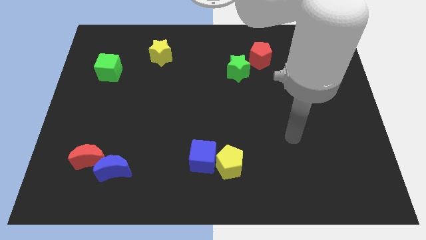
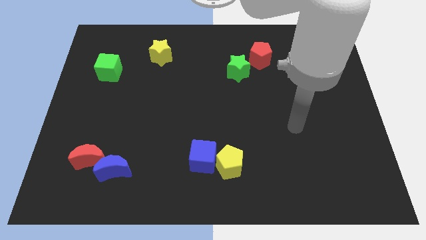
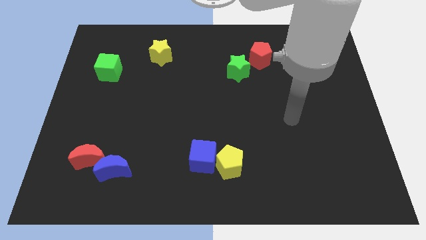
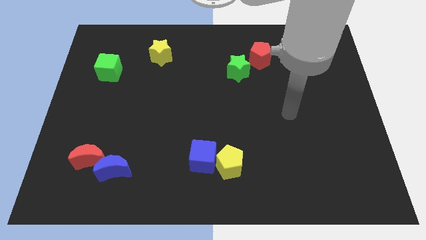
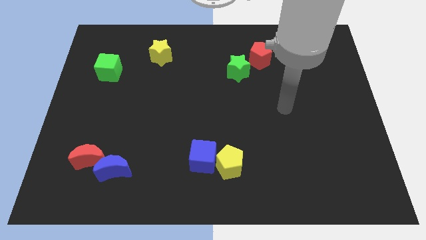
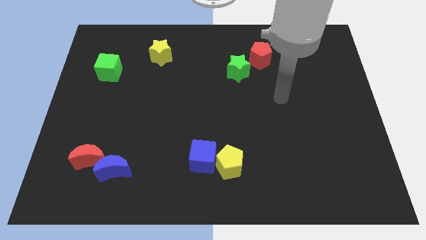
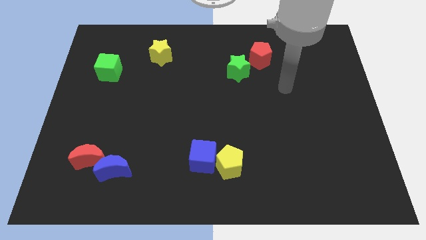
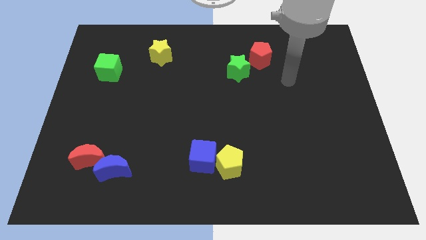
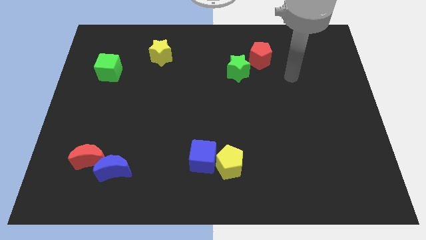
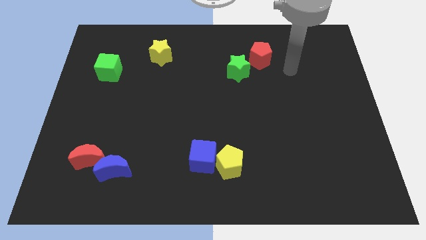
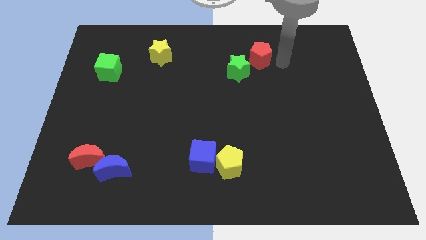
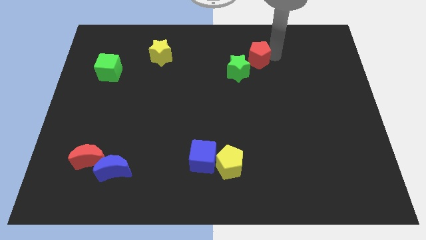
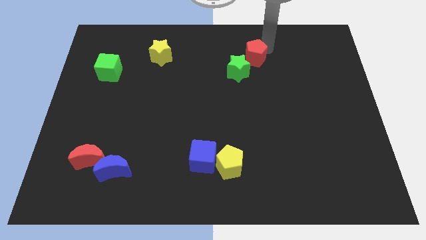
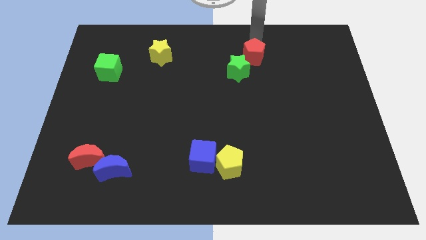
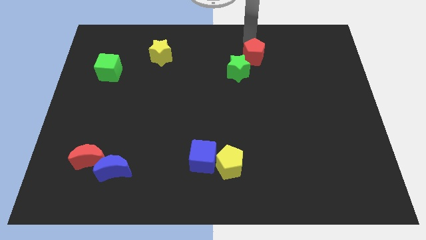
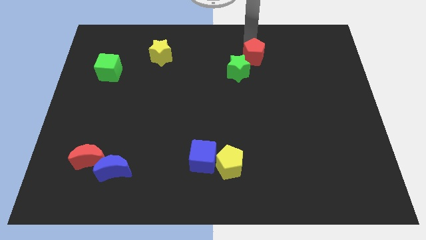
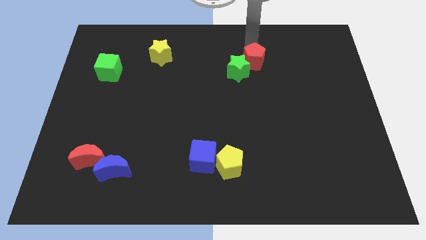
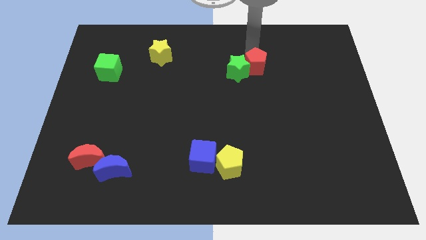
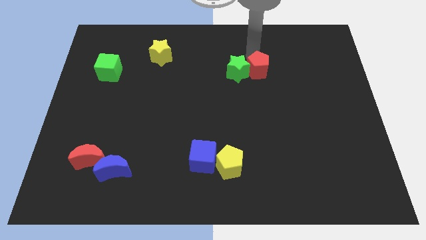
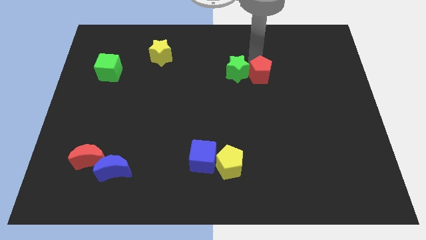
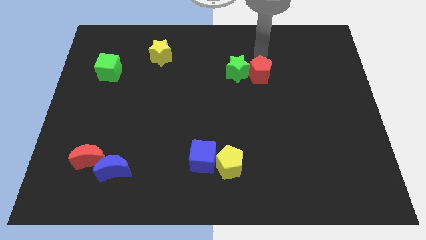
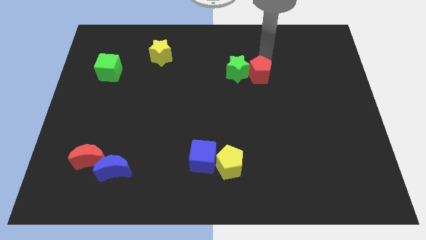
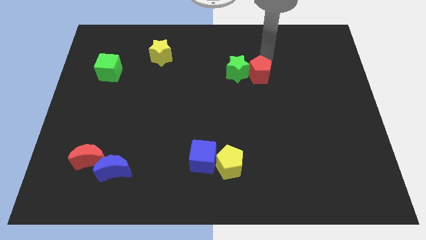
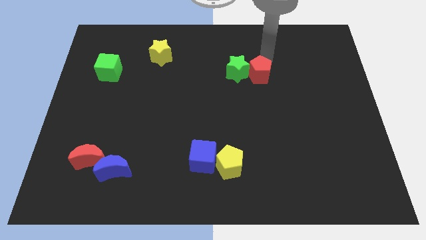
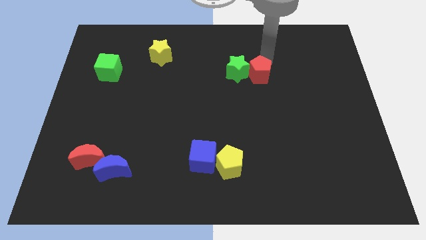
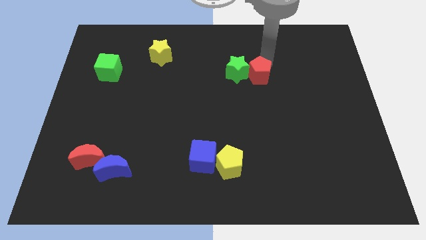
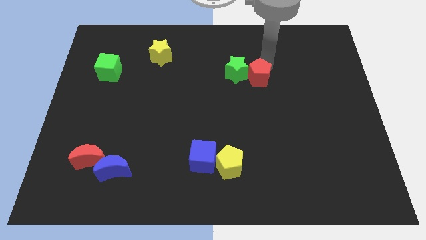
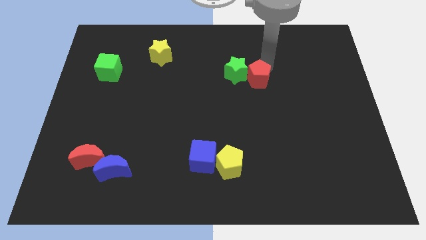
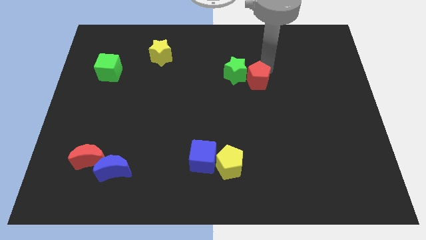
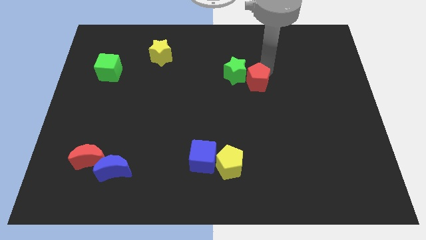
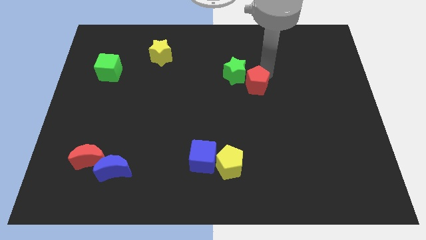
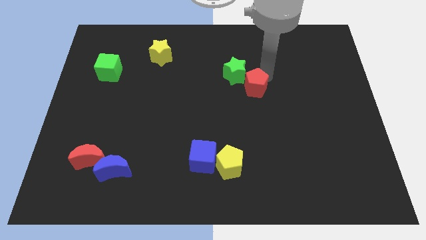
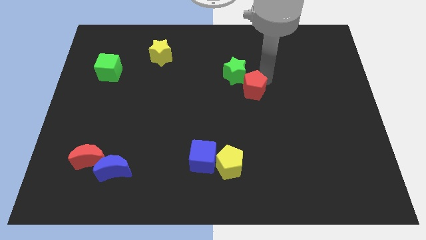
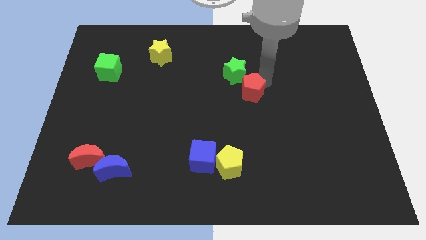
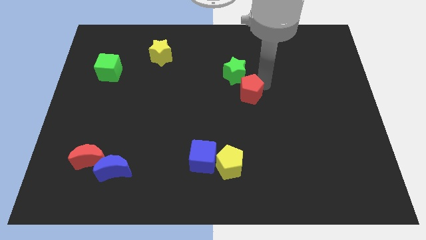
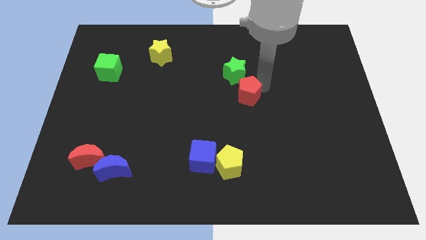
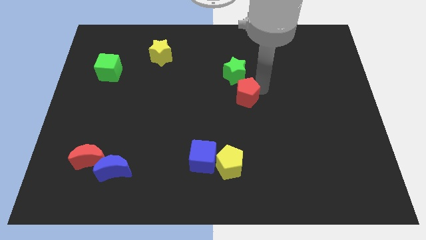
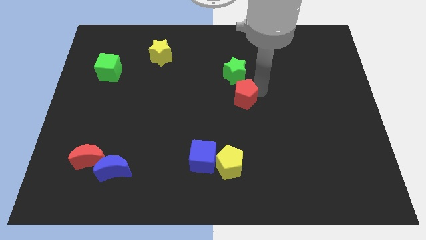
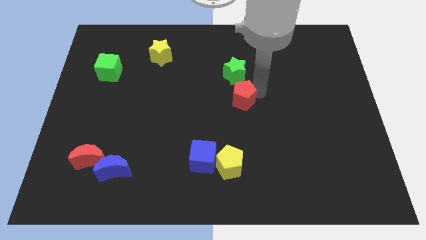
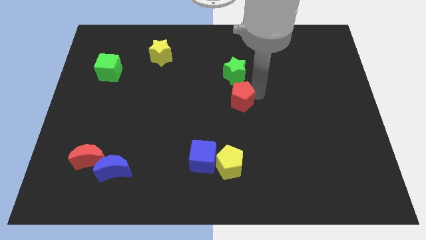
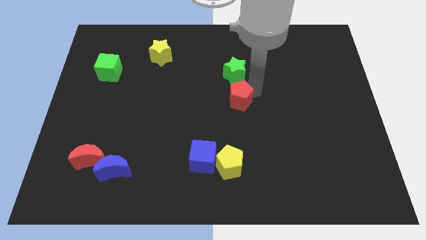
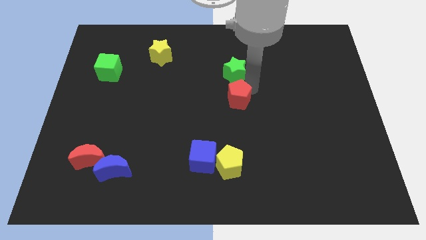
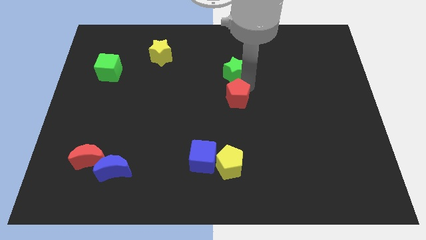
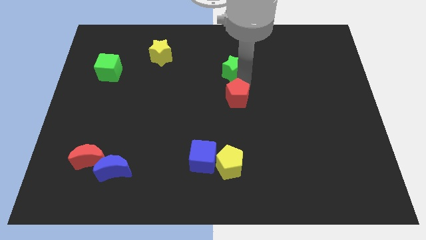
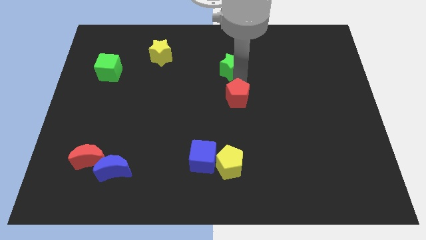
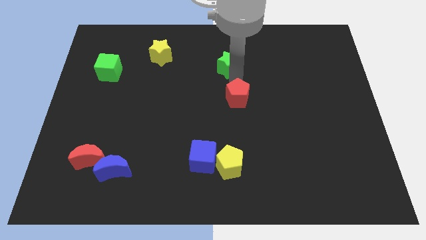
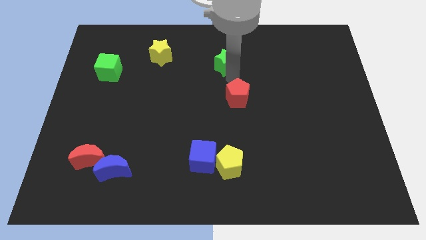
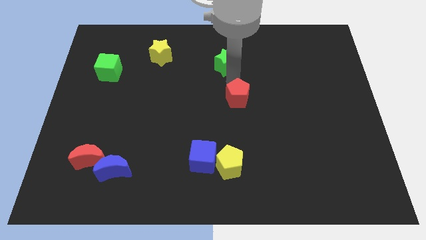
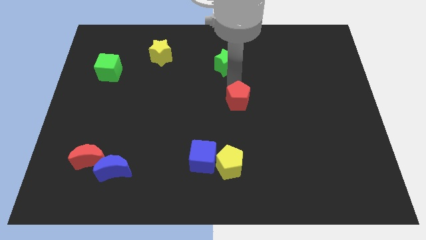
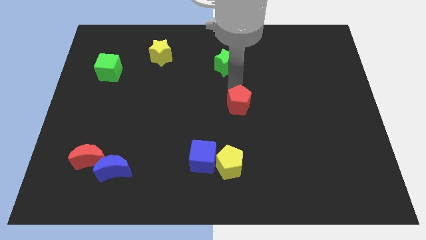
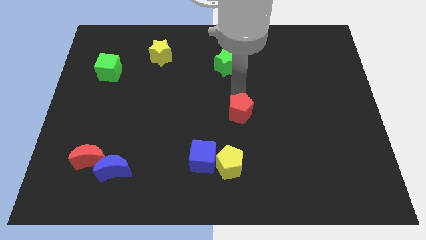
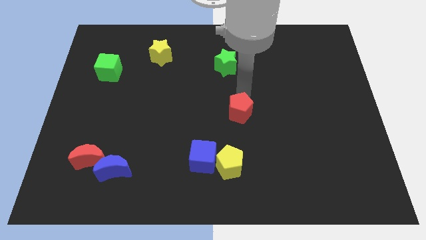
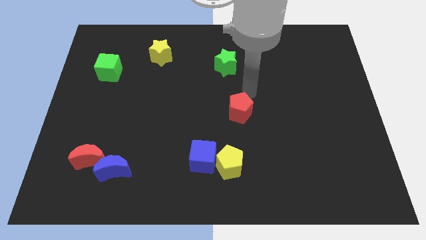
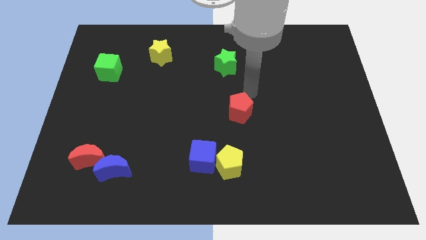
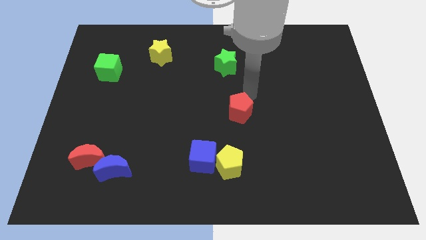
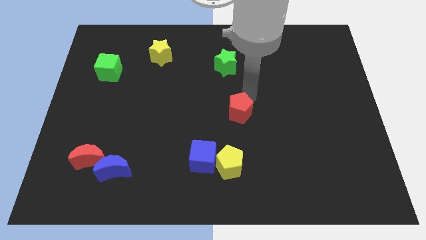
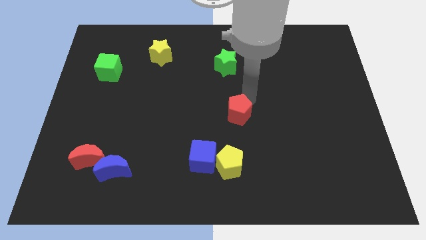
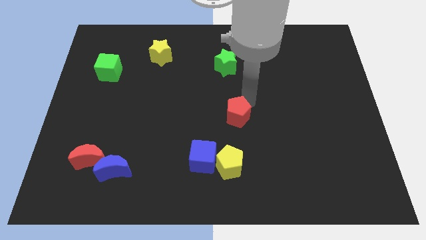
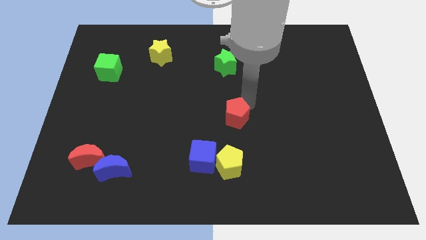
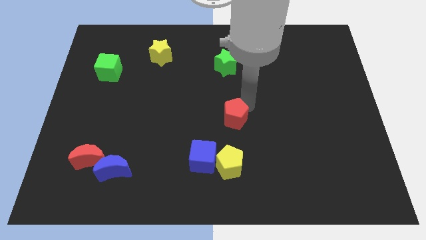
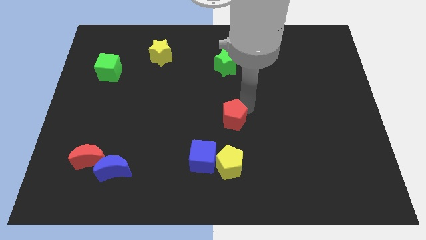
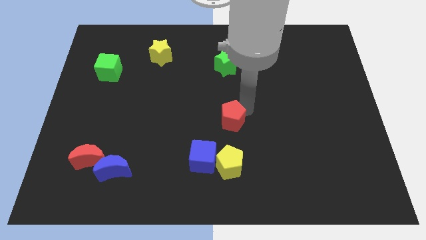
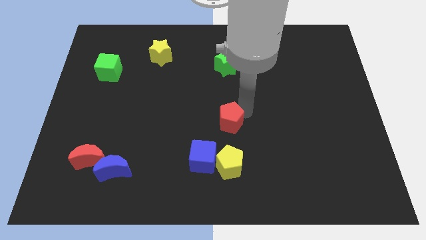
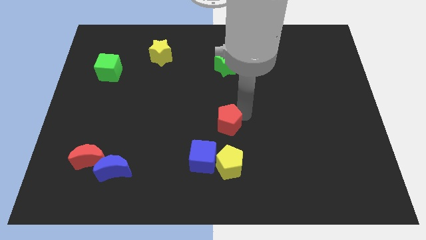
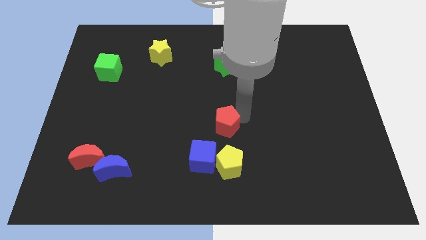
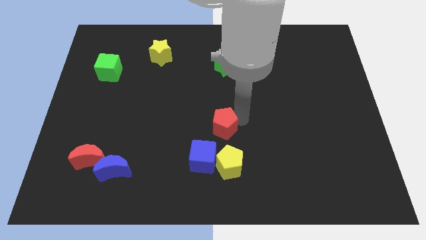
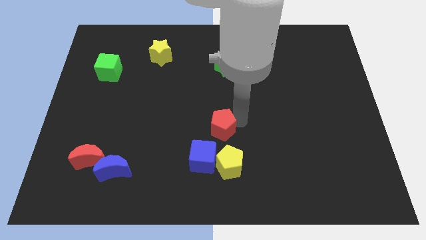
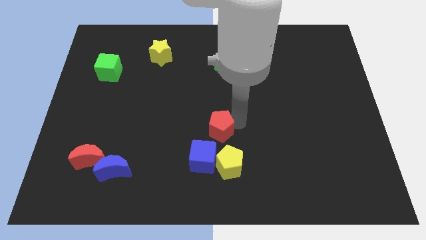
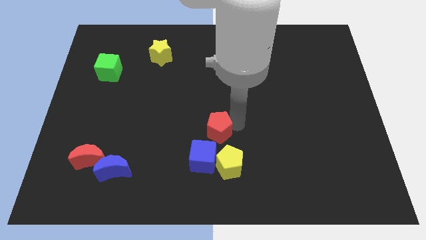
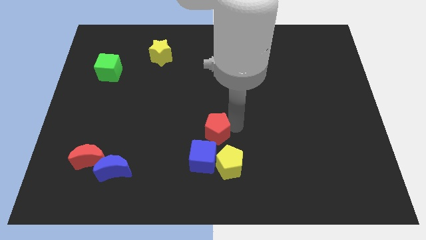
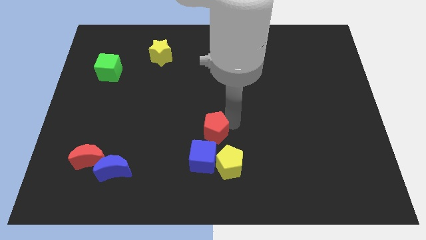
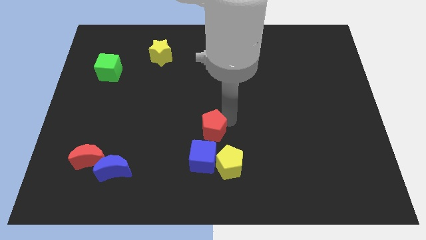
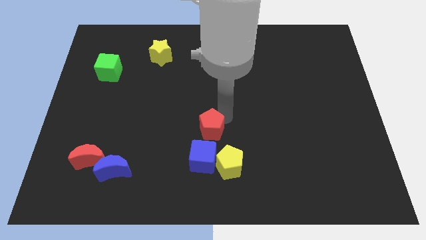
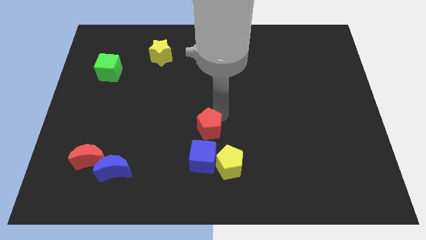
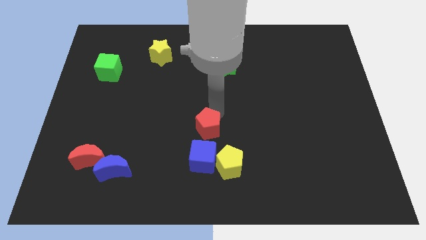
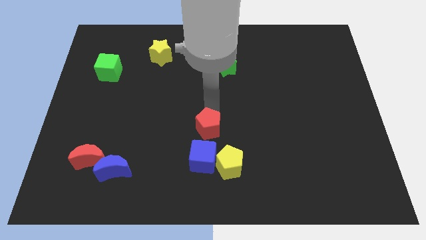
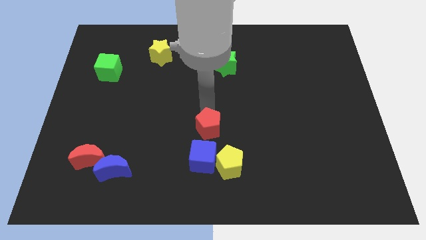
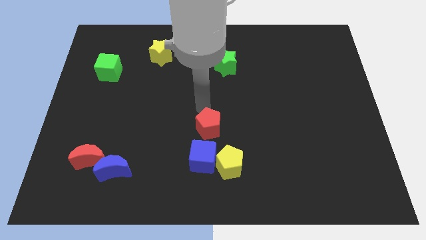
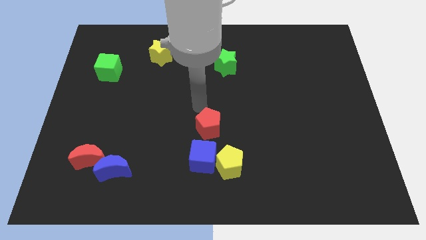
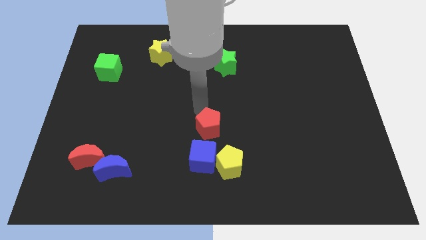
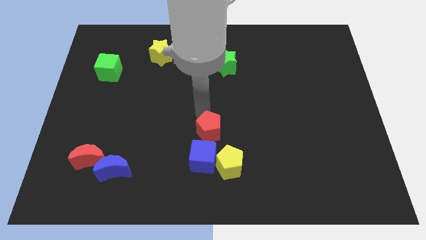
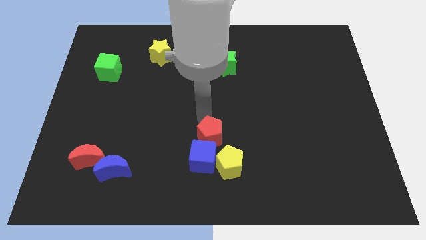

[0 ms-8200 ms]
slide the red pentagon close to the blue cube
